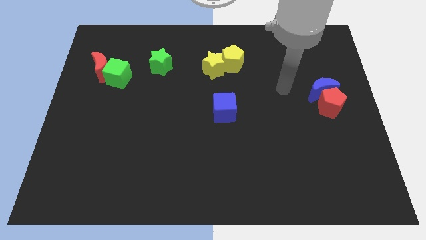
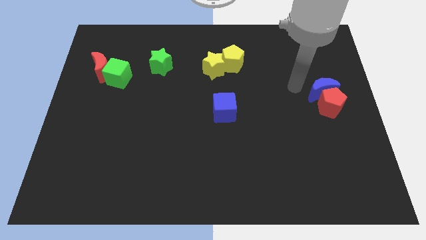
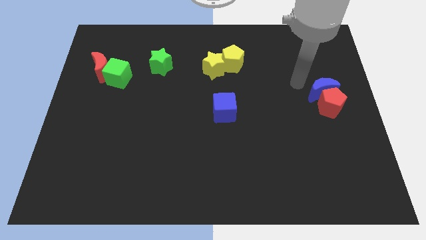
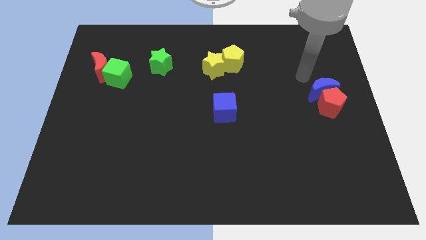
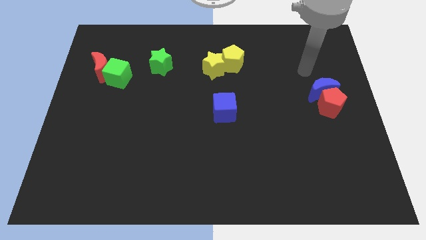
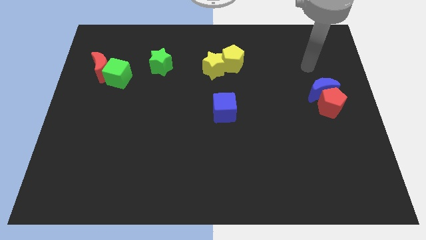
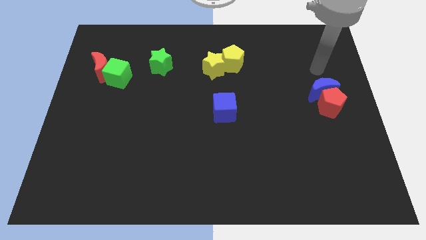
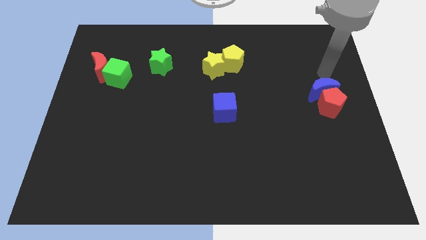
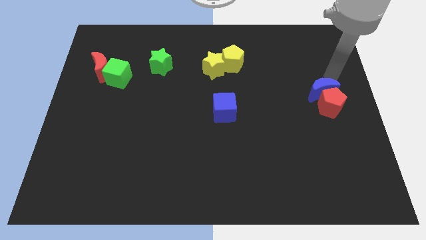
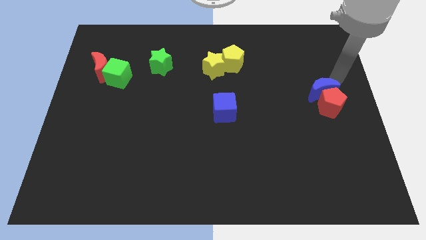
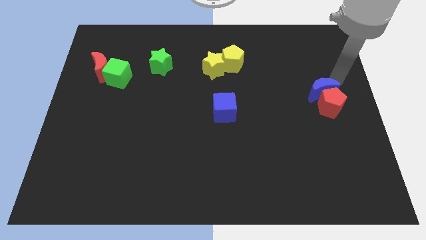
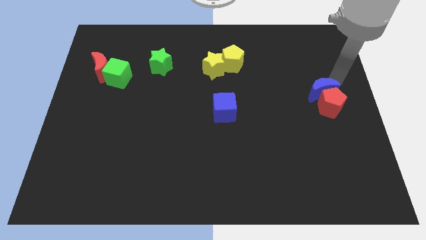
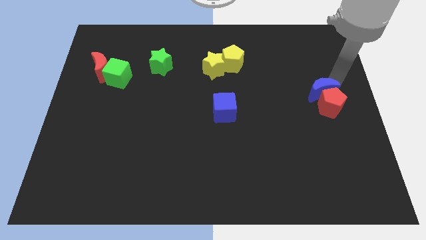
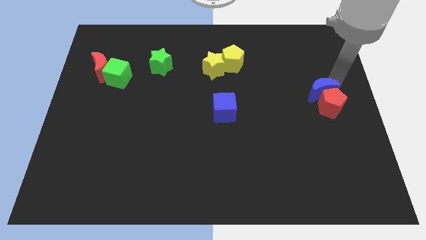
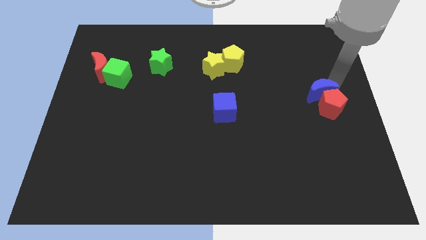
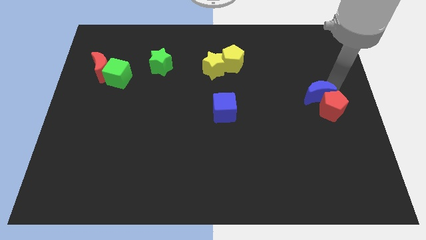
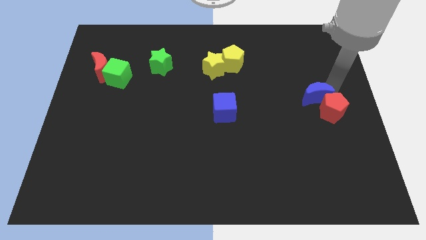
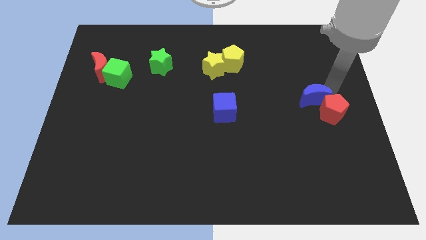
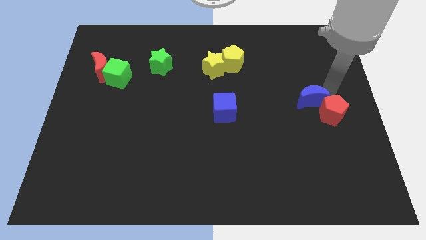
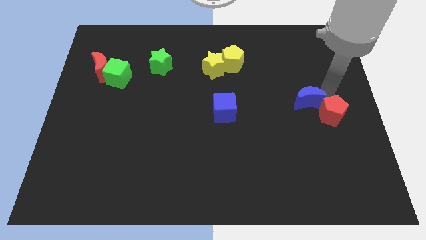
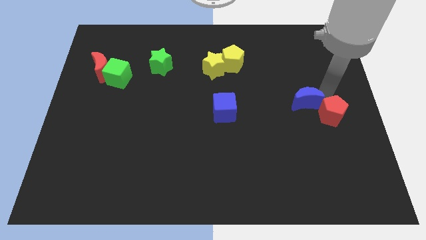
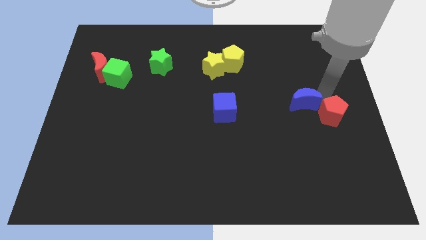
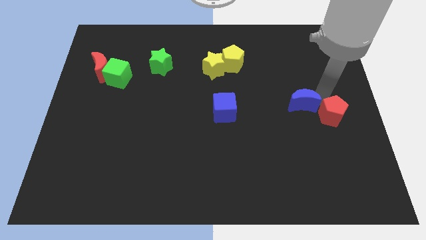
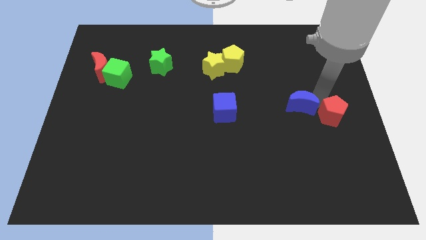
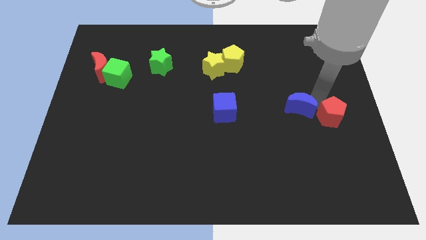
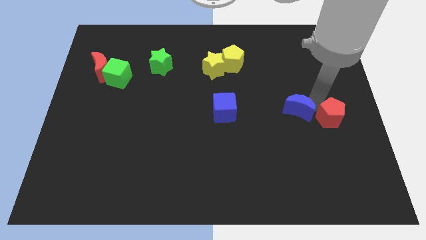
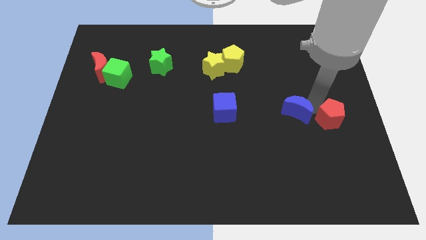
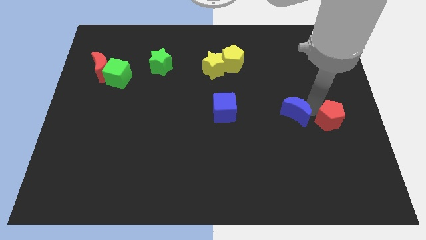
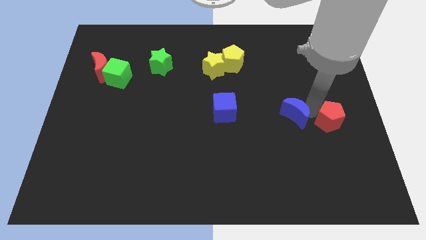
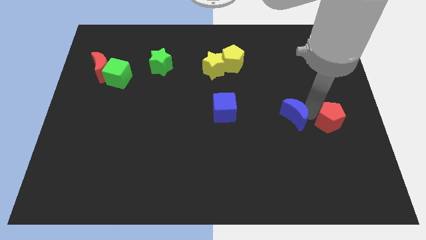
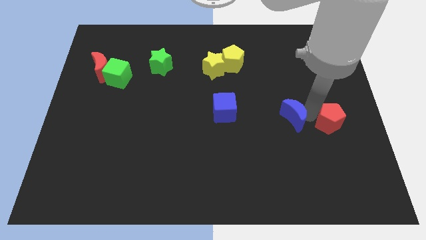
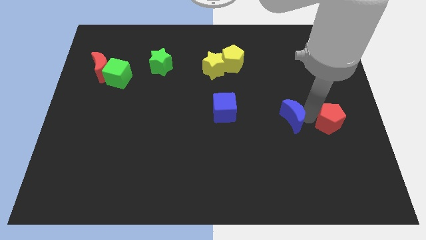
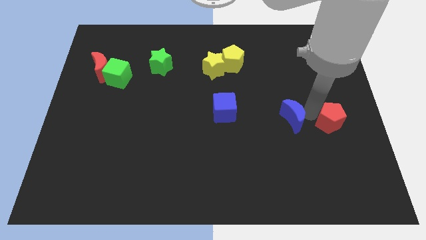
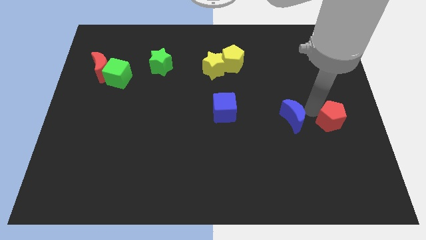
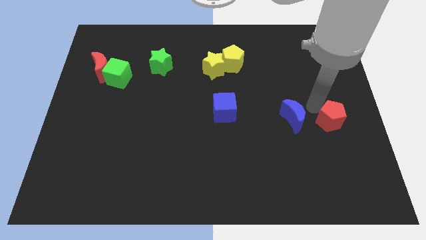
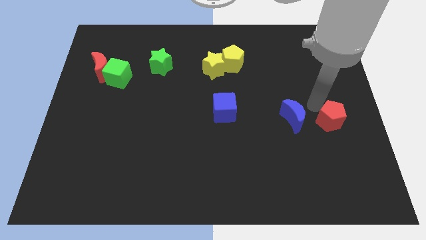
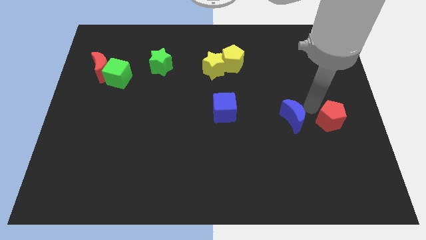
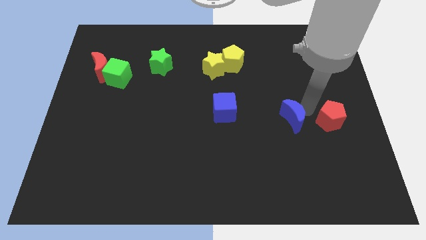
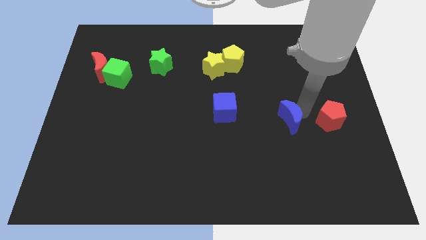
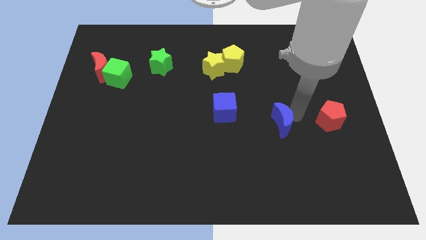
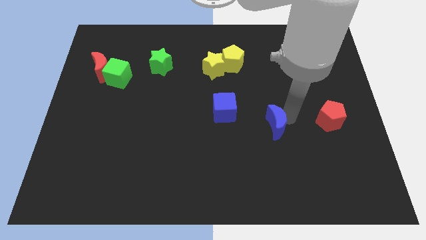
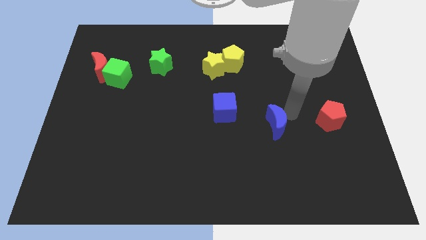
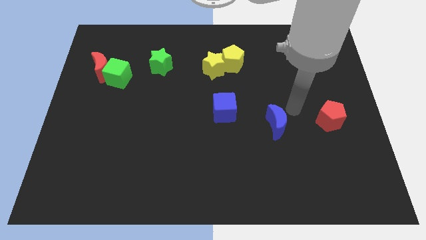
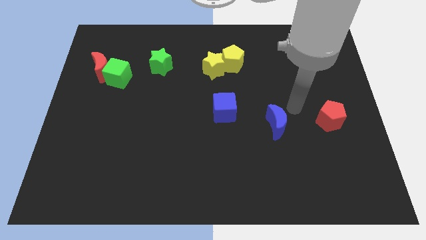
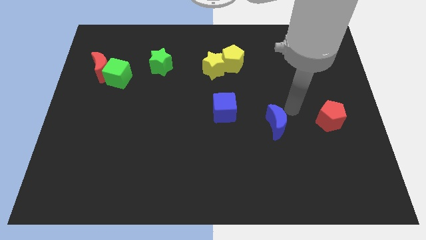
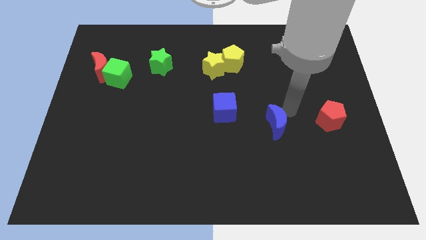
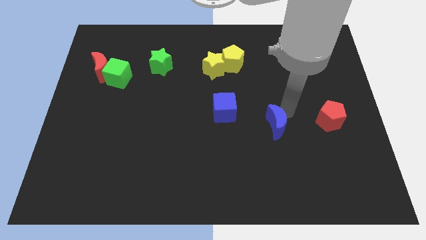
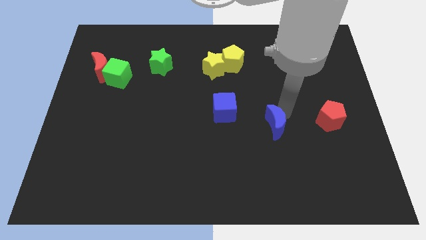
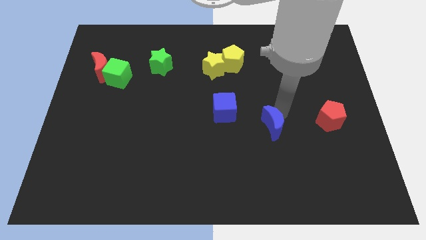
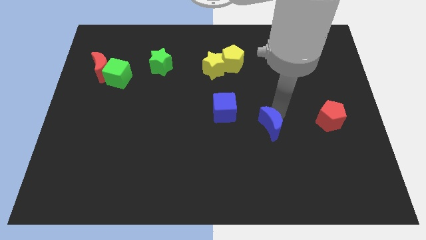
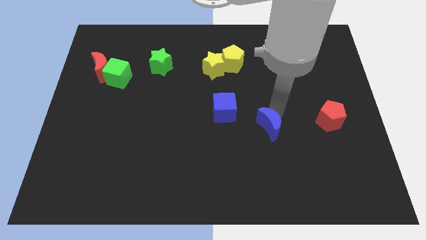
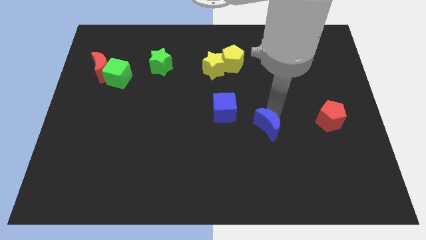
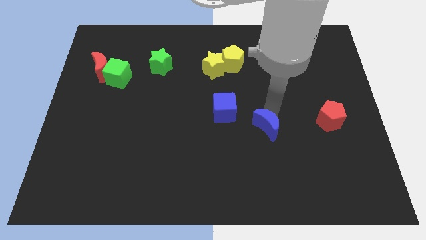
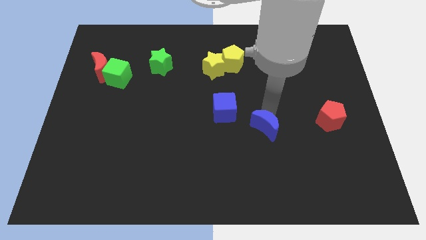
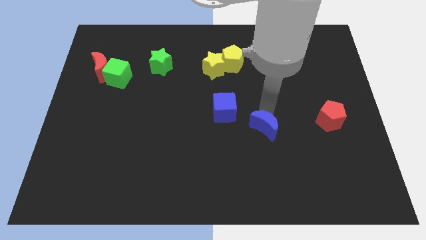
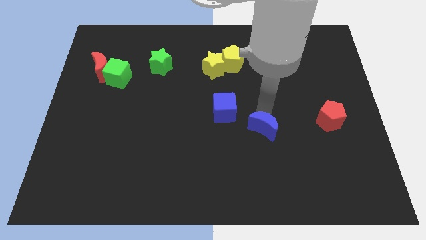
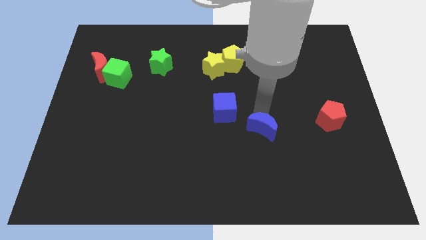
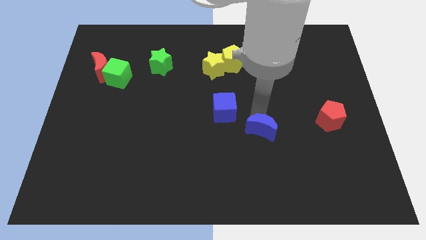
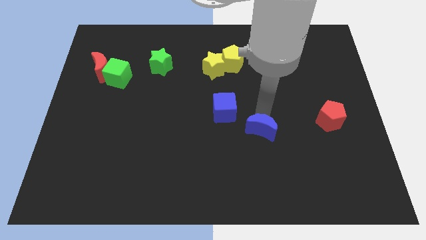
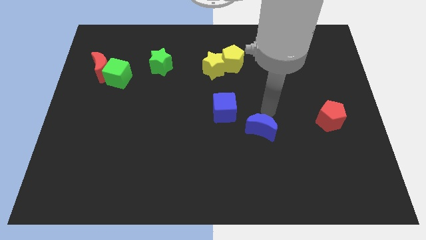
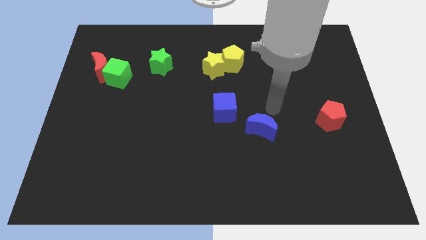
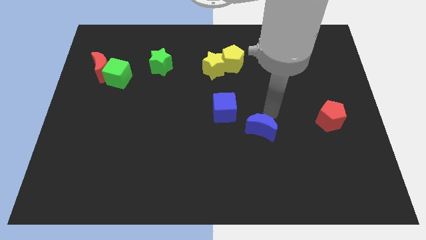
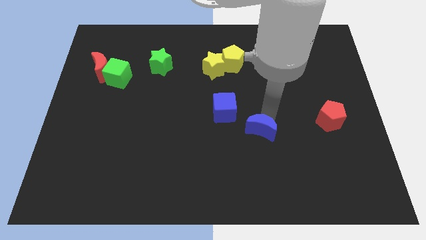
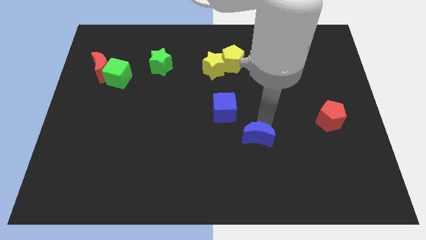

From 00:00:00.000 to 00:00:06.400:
move the blue moon downwards and to the left

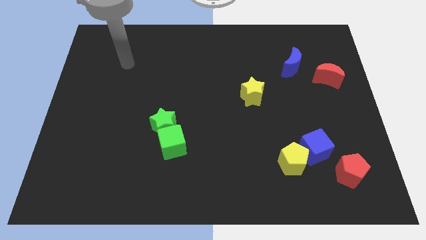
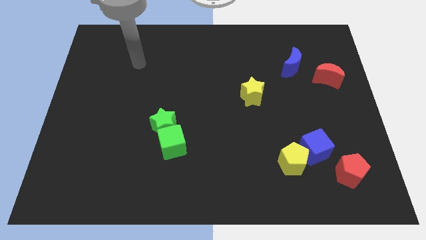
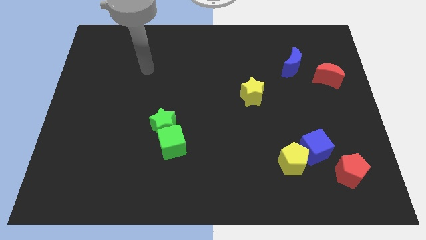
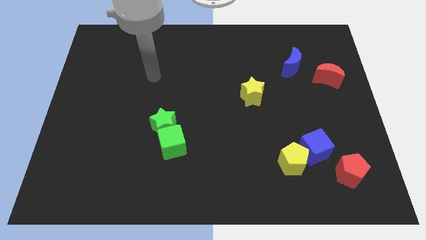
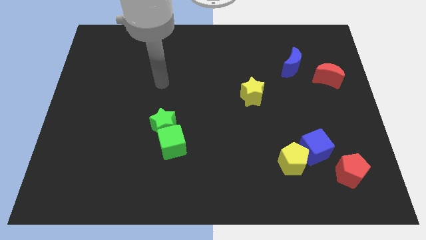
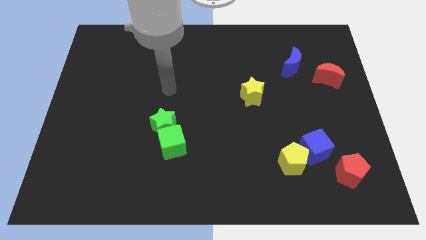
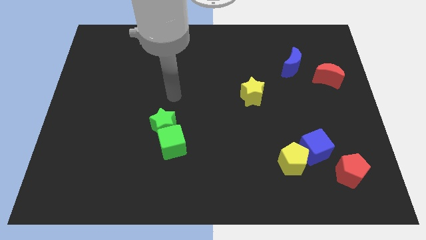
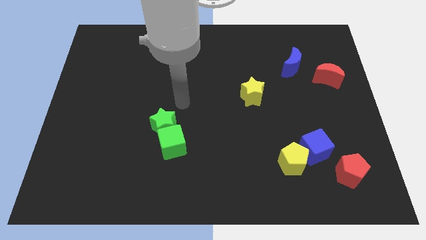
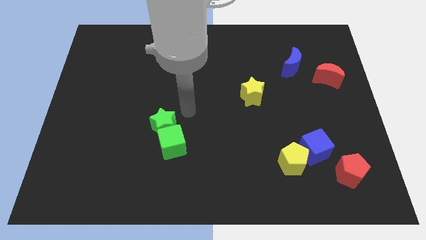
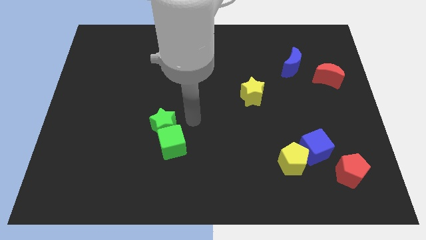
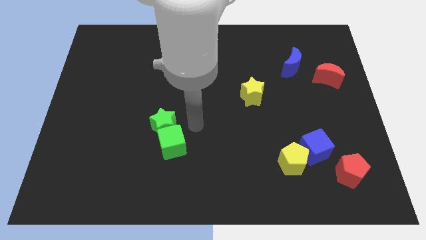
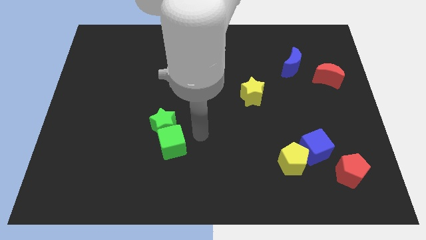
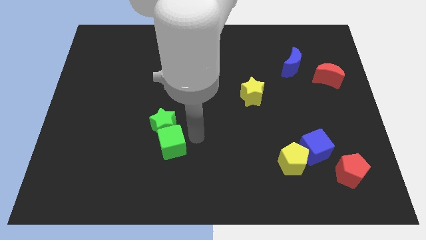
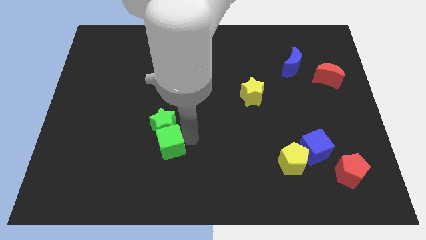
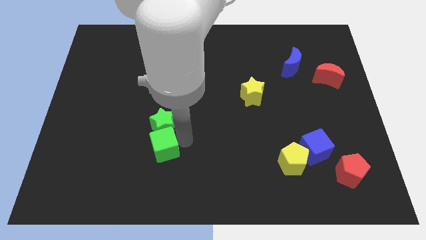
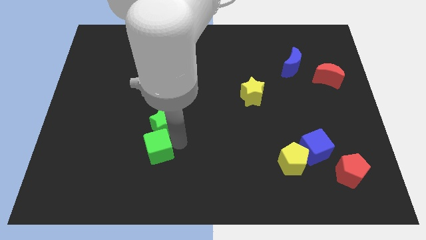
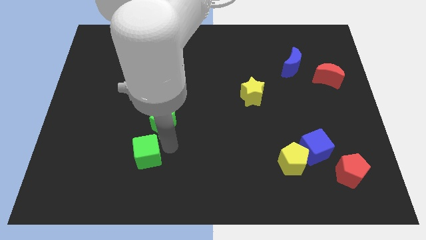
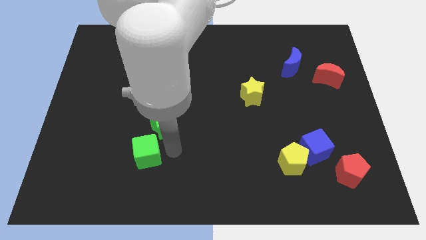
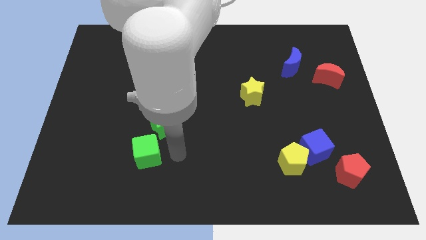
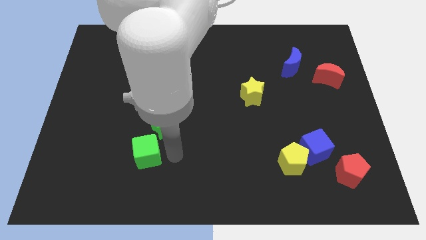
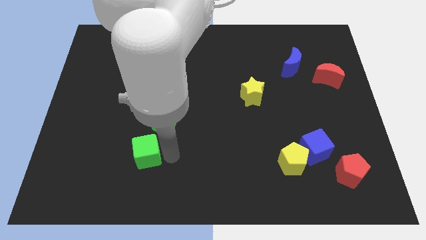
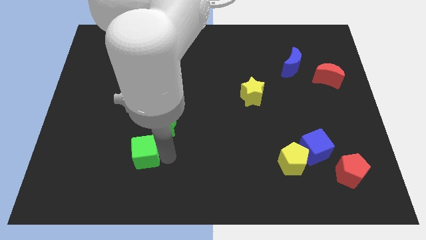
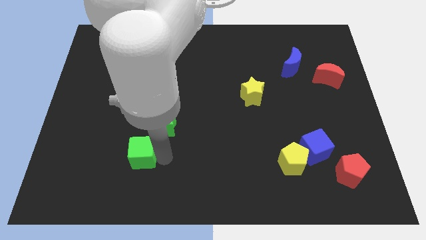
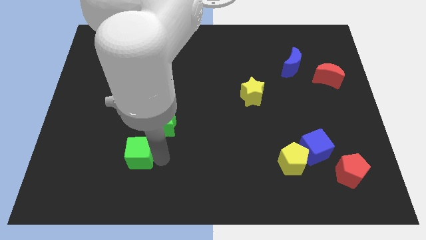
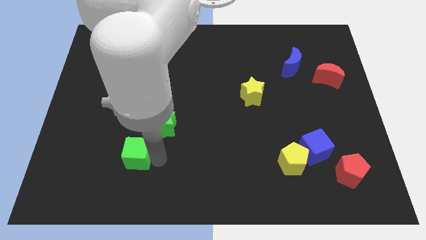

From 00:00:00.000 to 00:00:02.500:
move the green cube left a little bit
